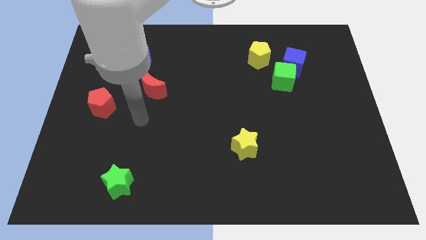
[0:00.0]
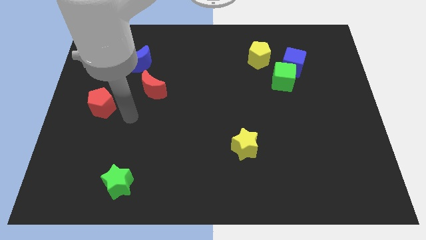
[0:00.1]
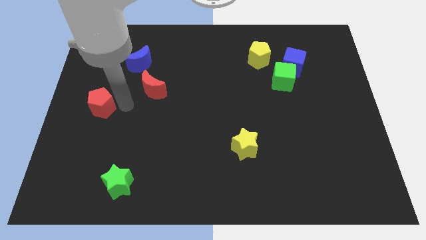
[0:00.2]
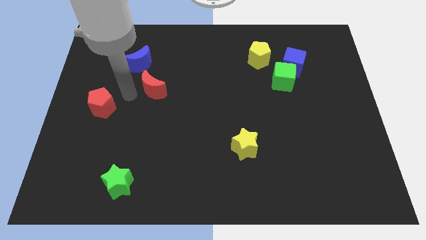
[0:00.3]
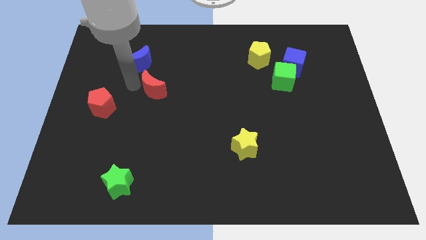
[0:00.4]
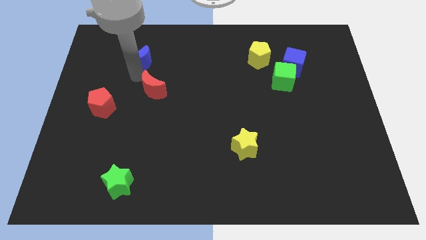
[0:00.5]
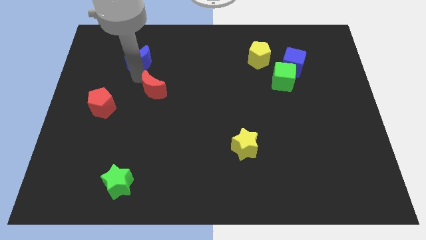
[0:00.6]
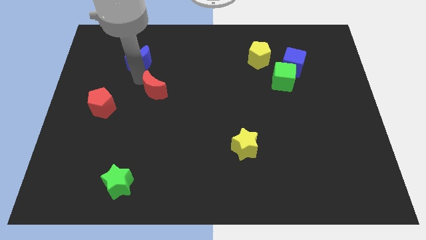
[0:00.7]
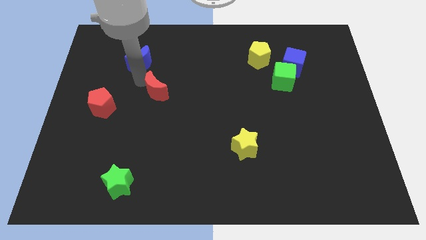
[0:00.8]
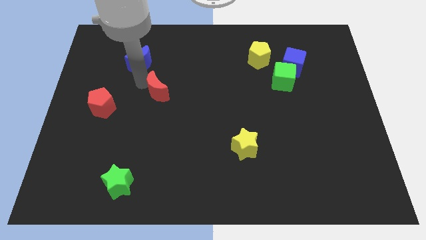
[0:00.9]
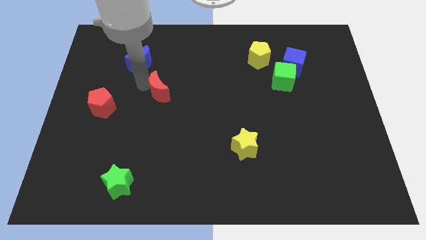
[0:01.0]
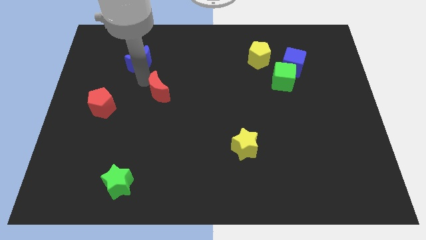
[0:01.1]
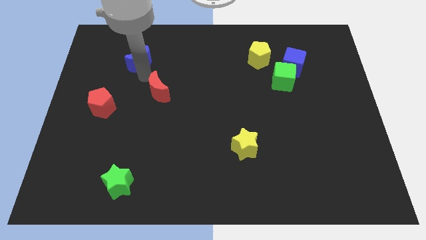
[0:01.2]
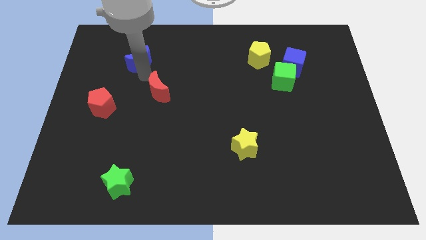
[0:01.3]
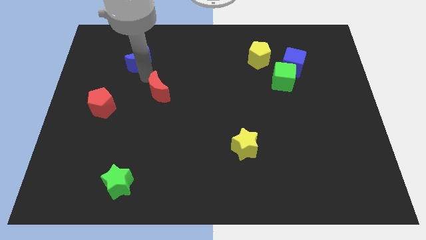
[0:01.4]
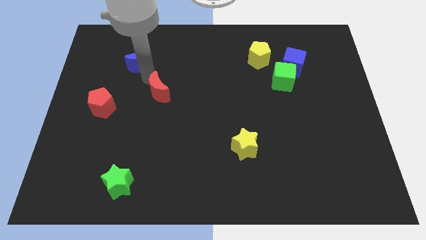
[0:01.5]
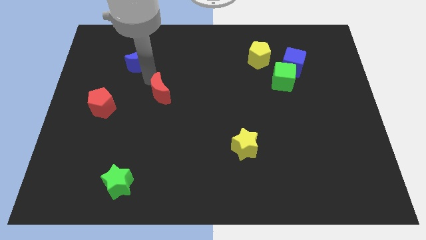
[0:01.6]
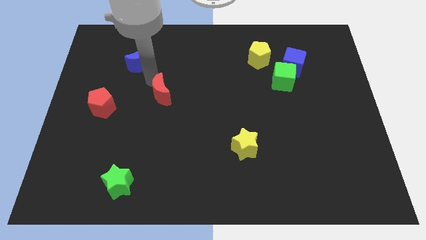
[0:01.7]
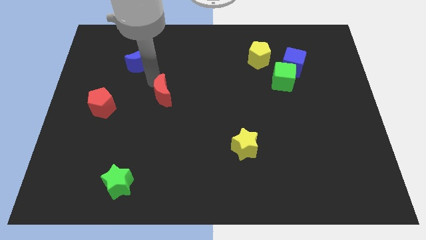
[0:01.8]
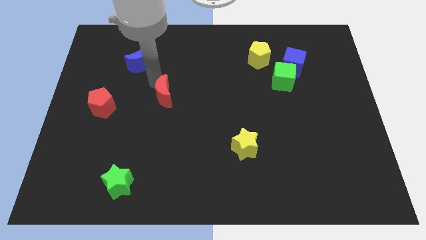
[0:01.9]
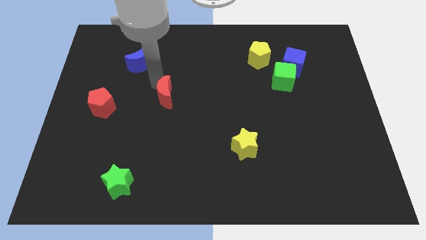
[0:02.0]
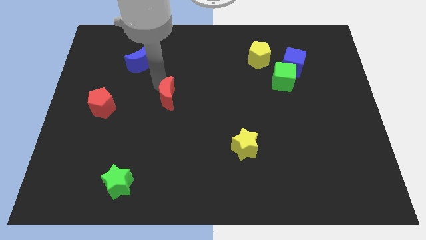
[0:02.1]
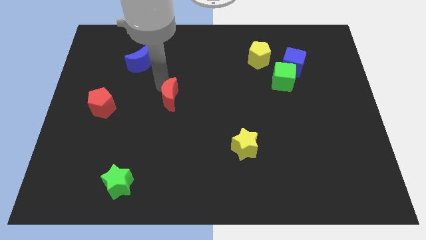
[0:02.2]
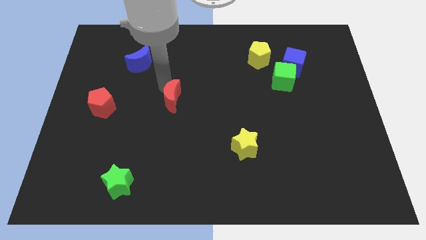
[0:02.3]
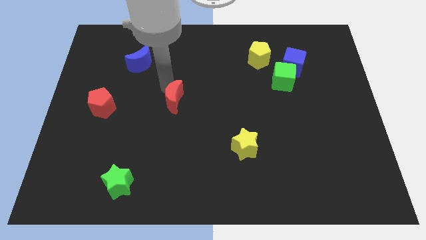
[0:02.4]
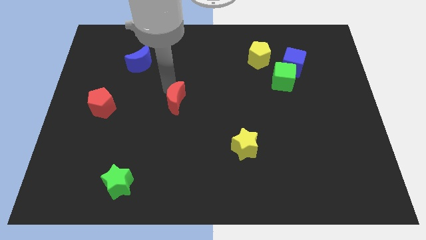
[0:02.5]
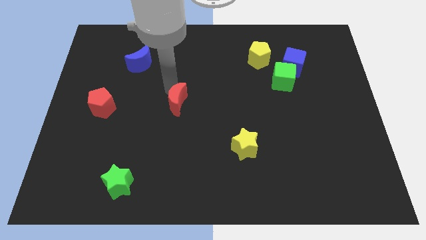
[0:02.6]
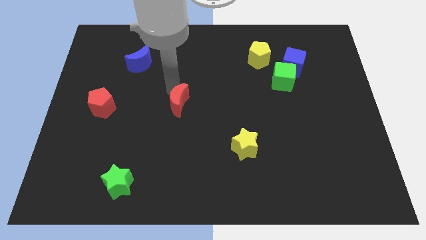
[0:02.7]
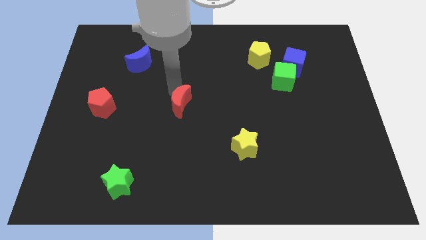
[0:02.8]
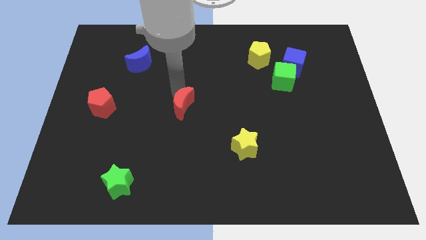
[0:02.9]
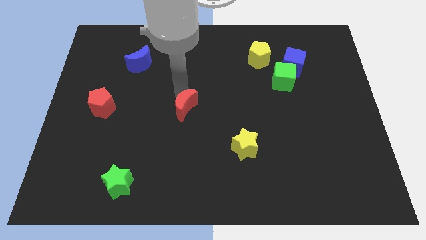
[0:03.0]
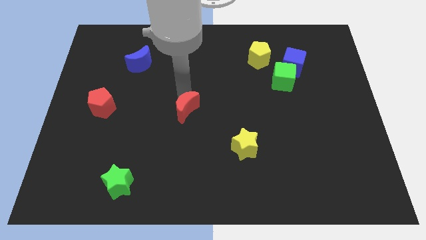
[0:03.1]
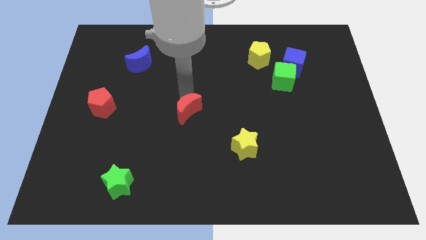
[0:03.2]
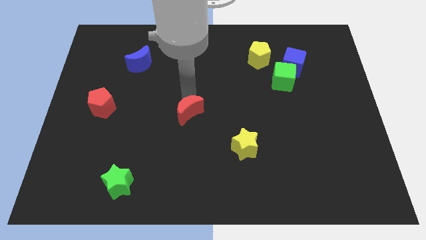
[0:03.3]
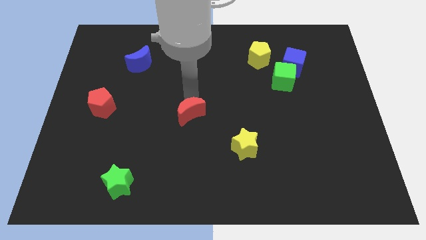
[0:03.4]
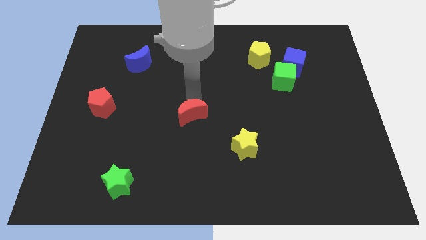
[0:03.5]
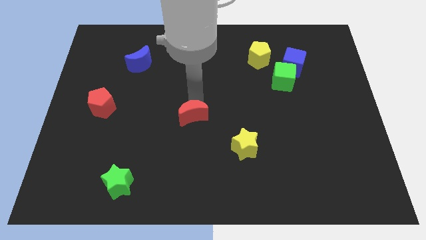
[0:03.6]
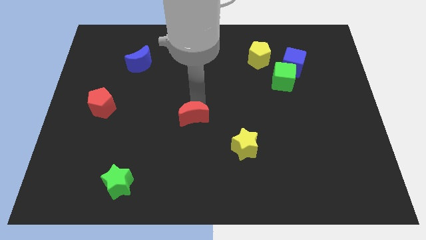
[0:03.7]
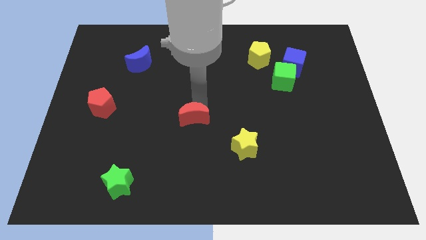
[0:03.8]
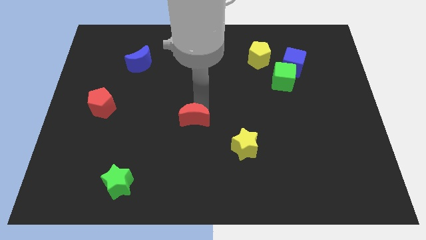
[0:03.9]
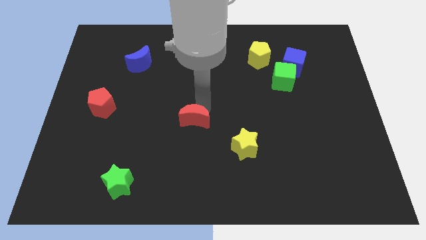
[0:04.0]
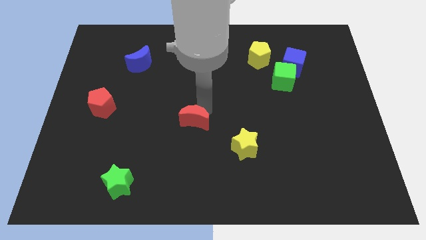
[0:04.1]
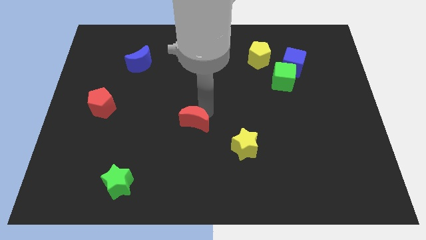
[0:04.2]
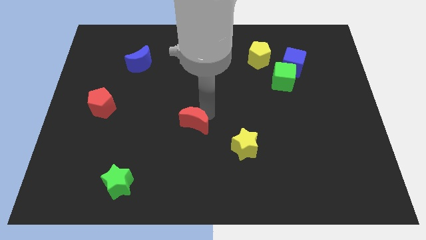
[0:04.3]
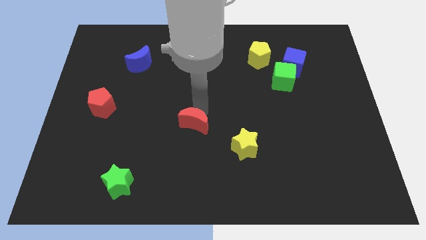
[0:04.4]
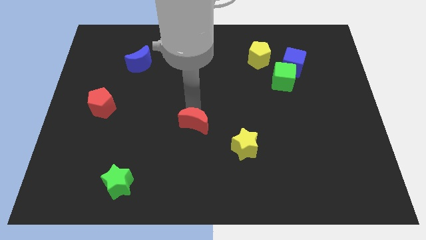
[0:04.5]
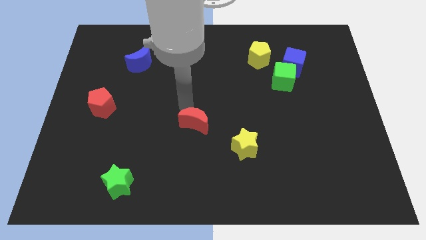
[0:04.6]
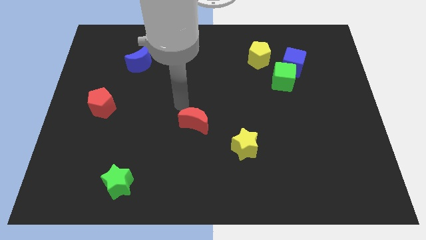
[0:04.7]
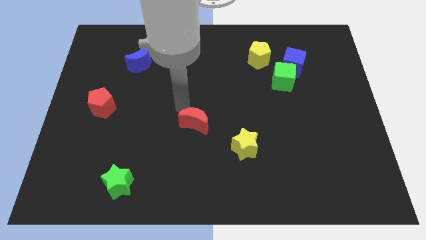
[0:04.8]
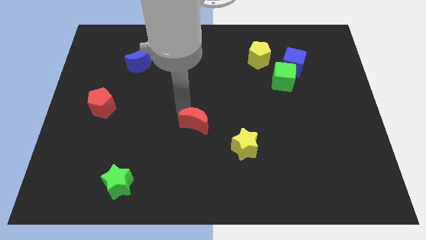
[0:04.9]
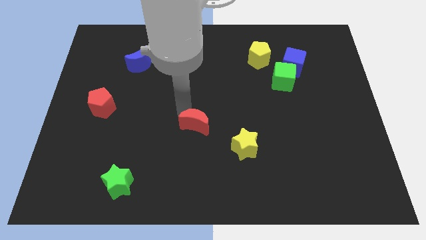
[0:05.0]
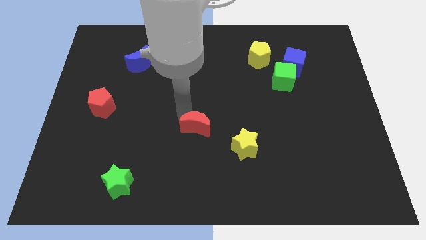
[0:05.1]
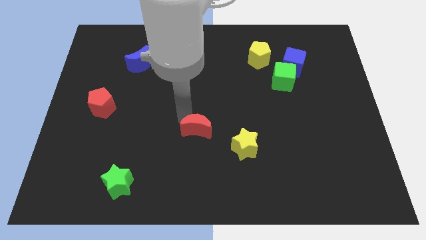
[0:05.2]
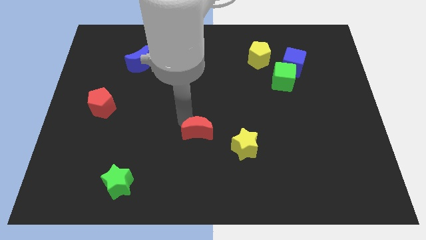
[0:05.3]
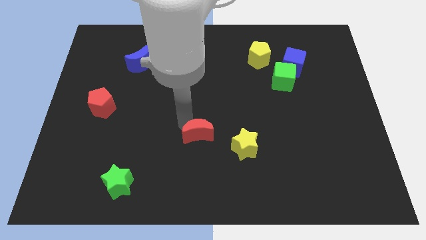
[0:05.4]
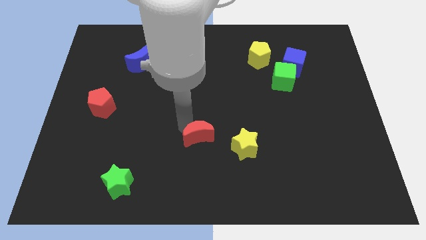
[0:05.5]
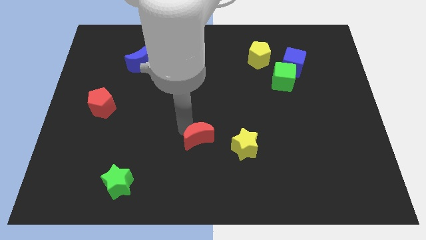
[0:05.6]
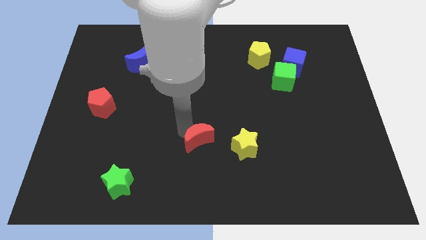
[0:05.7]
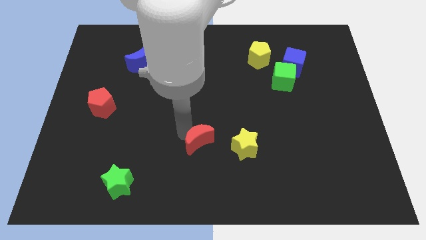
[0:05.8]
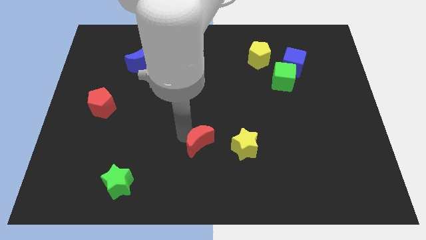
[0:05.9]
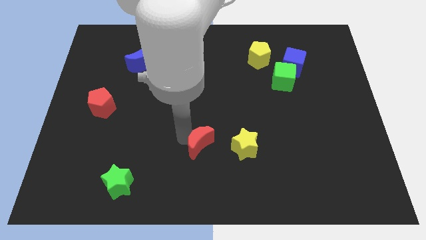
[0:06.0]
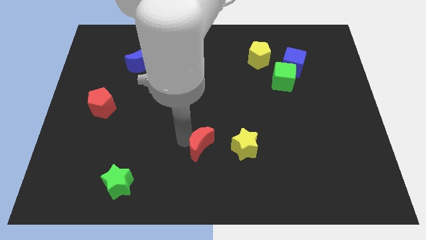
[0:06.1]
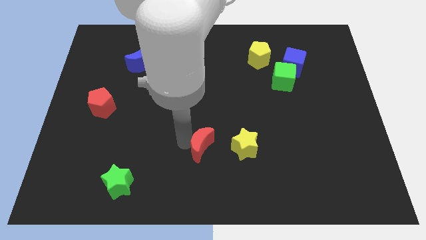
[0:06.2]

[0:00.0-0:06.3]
move the red moon downwards and to the right diagonally

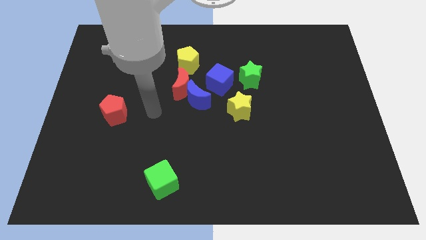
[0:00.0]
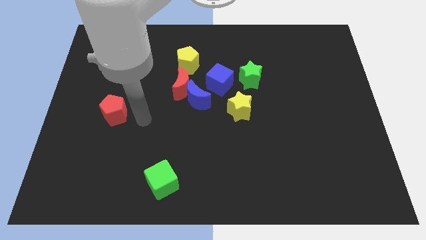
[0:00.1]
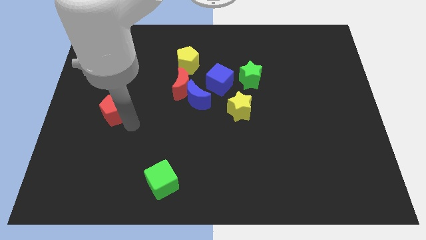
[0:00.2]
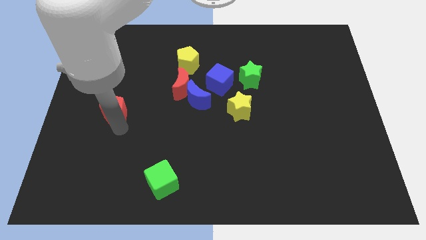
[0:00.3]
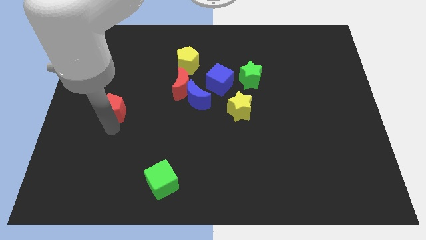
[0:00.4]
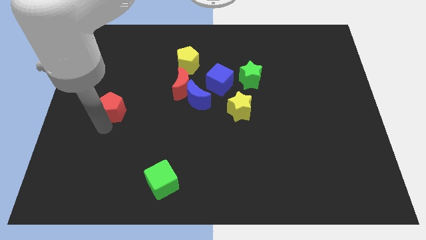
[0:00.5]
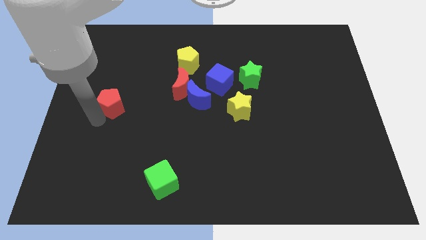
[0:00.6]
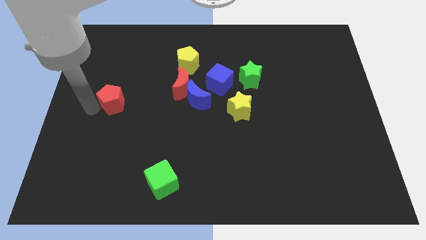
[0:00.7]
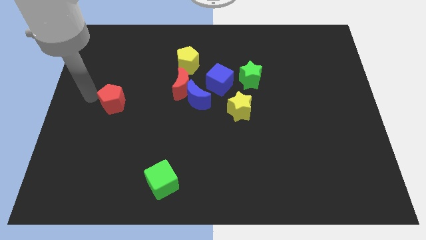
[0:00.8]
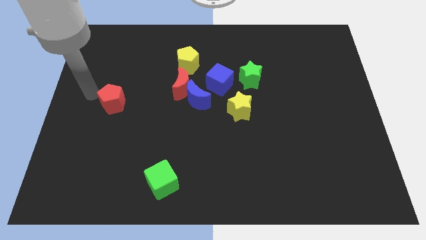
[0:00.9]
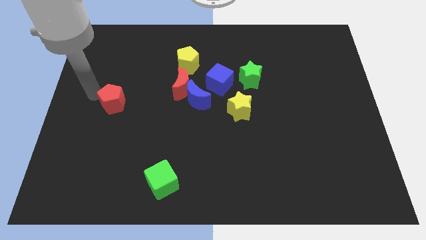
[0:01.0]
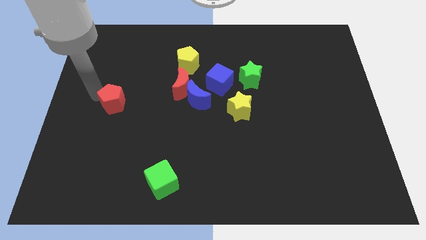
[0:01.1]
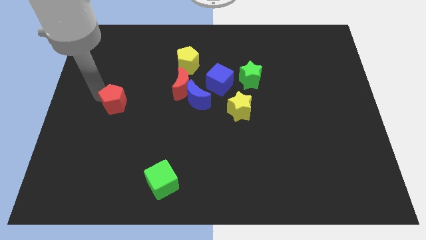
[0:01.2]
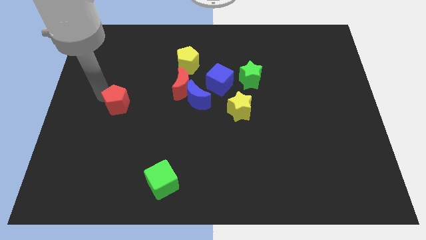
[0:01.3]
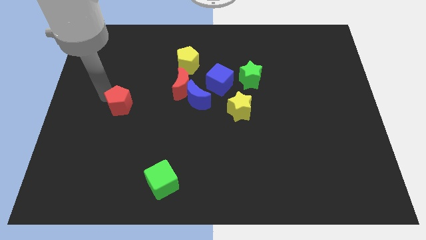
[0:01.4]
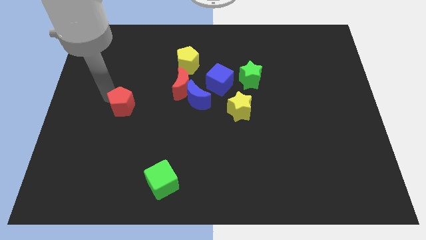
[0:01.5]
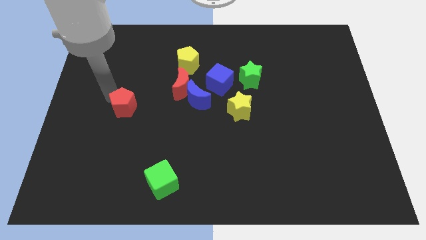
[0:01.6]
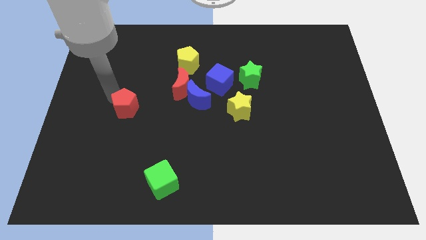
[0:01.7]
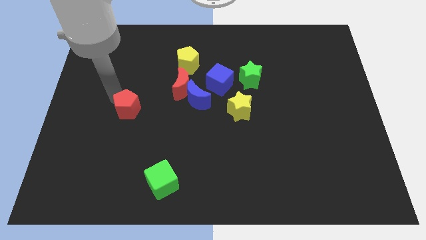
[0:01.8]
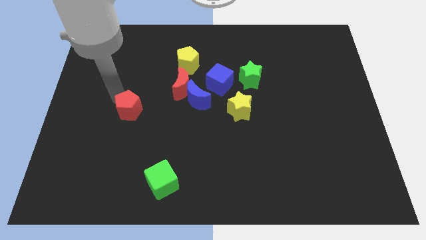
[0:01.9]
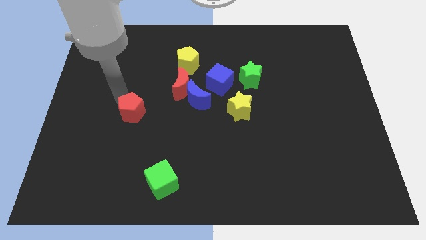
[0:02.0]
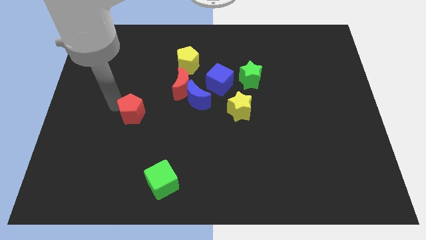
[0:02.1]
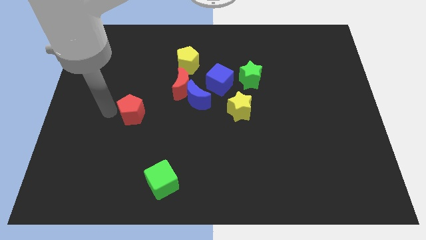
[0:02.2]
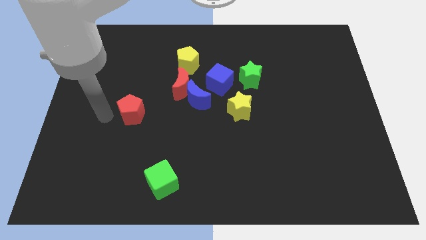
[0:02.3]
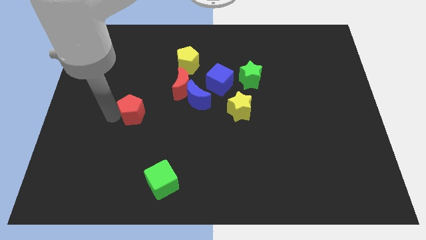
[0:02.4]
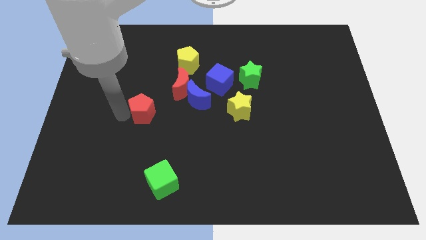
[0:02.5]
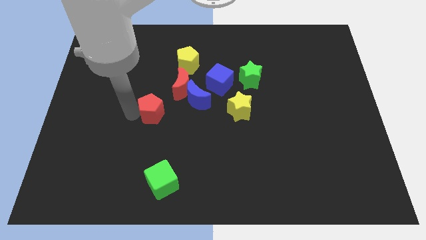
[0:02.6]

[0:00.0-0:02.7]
push the red pentagon right a little bit
